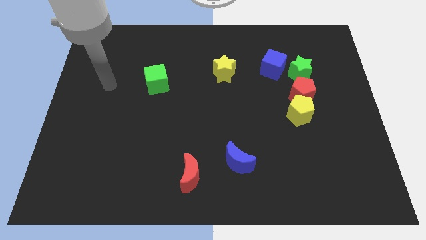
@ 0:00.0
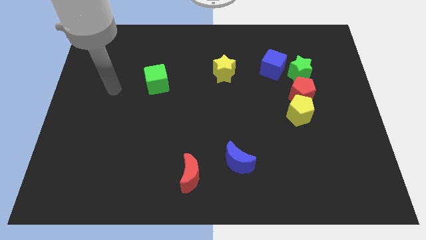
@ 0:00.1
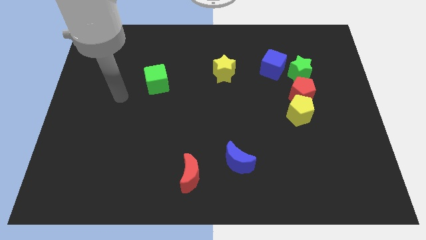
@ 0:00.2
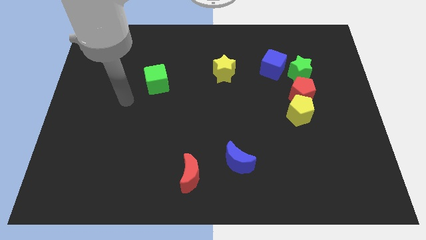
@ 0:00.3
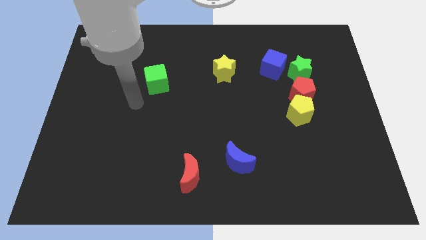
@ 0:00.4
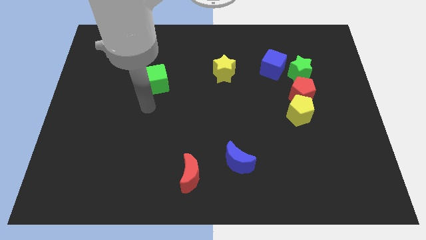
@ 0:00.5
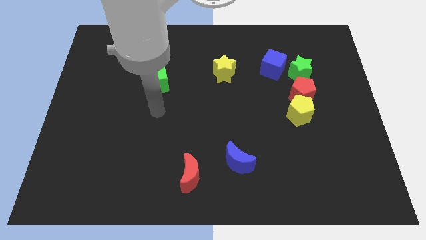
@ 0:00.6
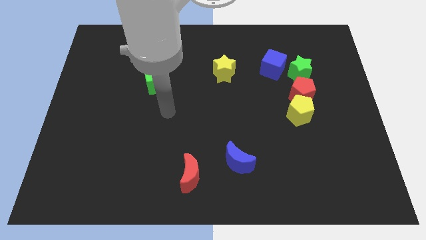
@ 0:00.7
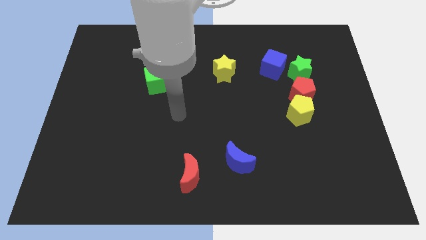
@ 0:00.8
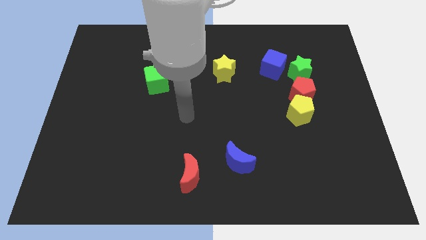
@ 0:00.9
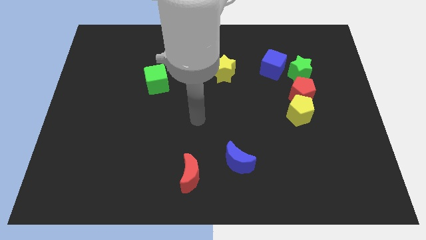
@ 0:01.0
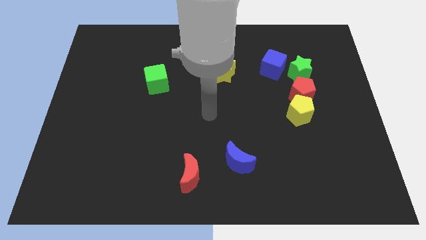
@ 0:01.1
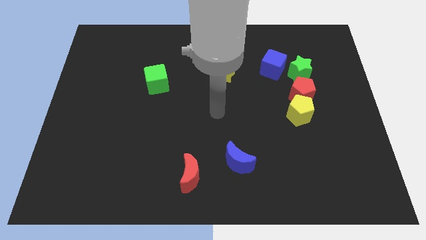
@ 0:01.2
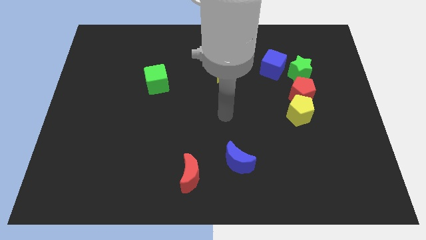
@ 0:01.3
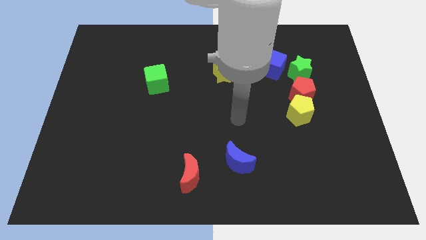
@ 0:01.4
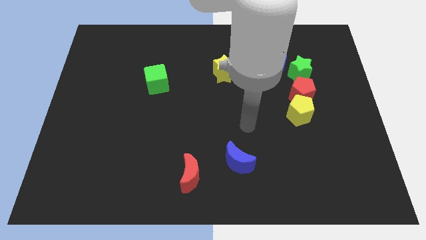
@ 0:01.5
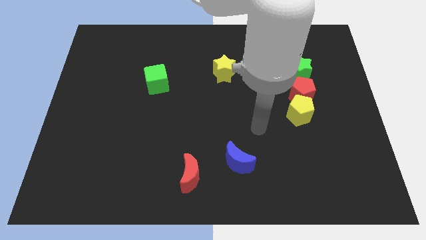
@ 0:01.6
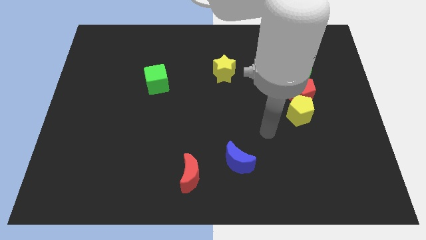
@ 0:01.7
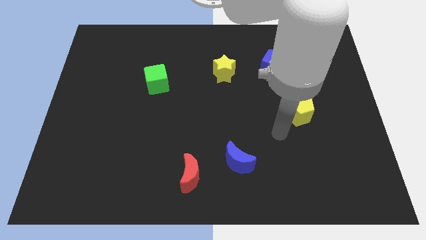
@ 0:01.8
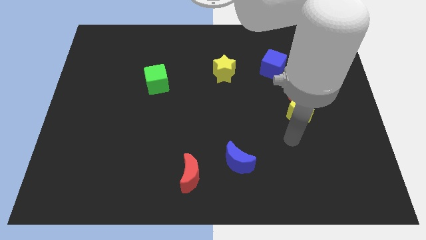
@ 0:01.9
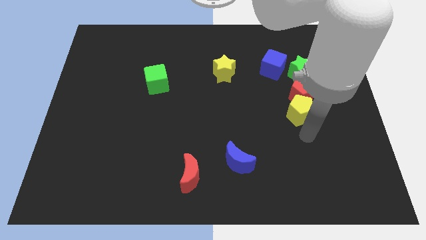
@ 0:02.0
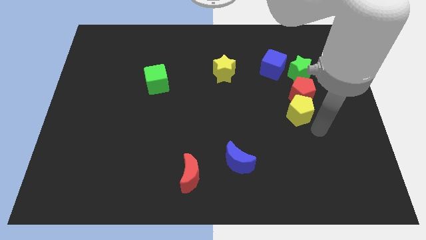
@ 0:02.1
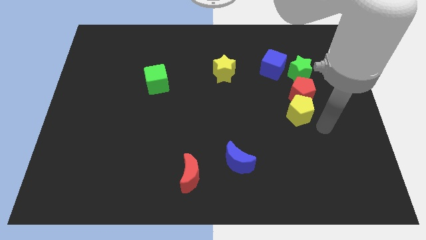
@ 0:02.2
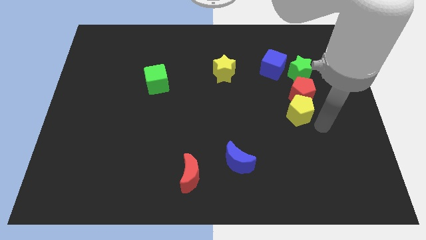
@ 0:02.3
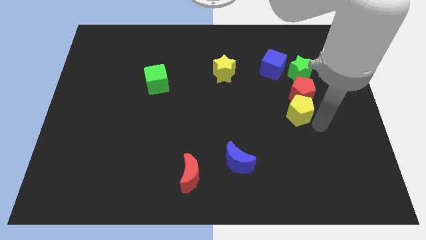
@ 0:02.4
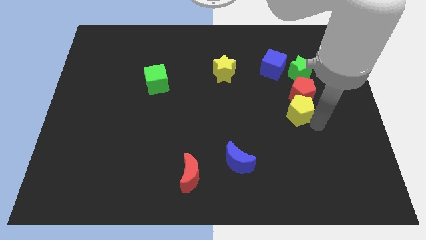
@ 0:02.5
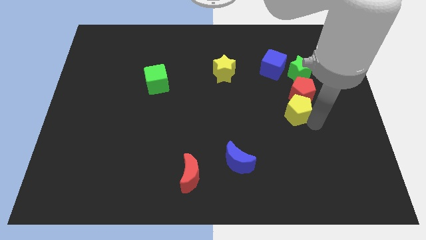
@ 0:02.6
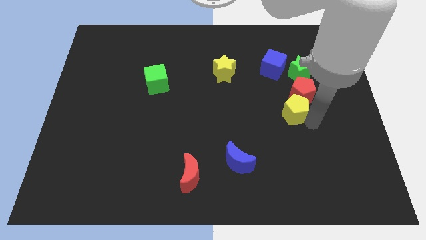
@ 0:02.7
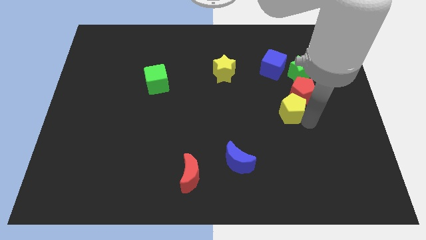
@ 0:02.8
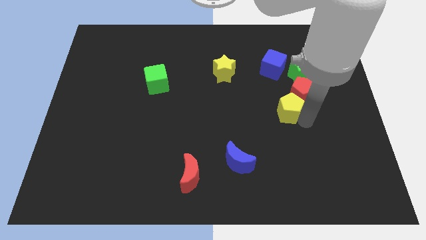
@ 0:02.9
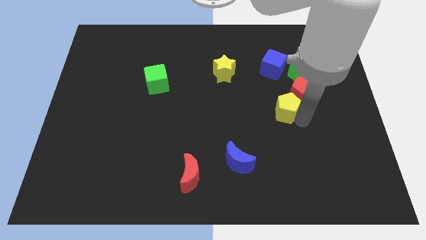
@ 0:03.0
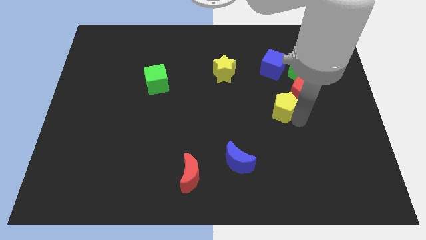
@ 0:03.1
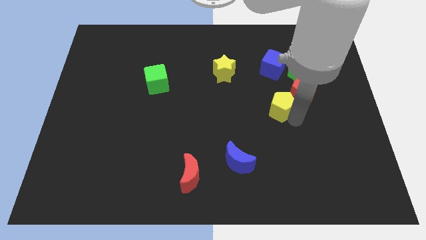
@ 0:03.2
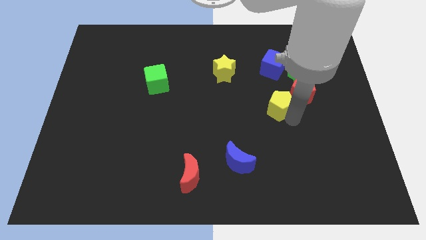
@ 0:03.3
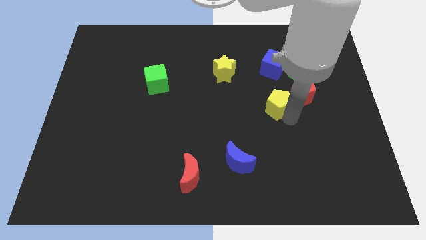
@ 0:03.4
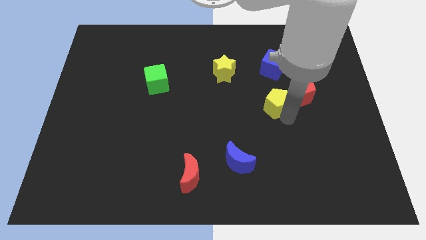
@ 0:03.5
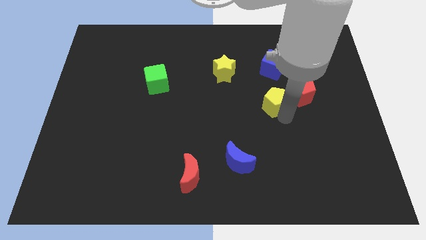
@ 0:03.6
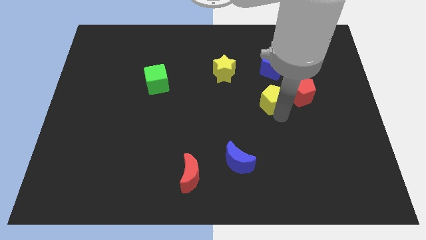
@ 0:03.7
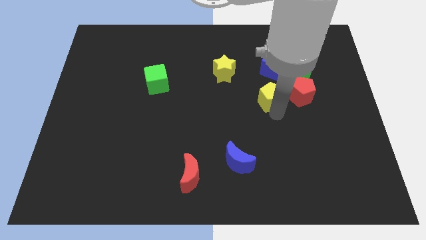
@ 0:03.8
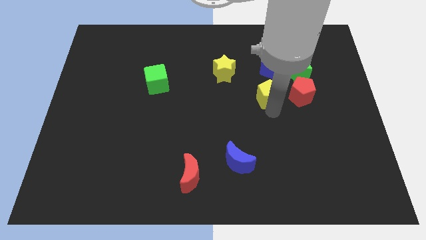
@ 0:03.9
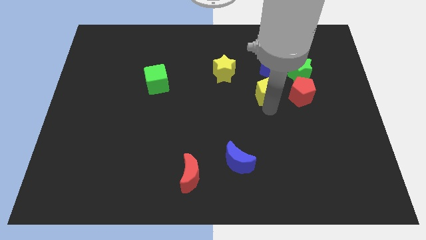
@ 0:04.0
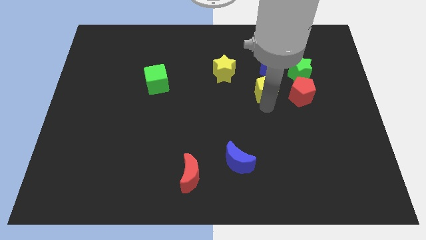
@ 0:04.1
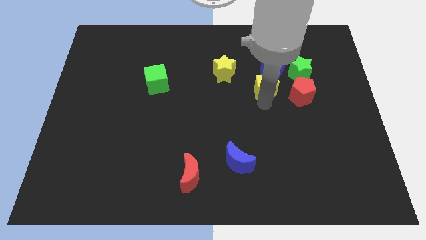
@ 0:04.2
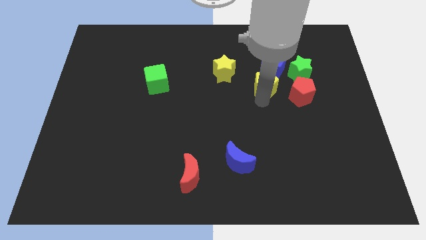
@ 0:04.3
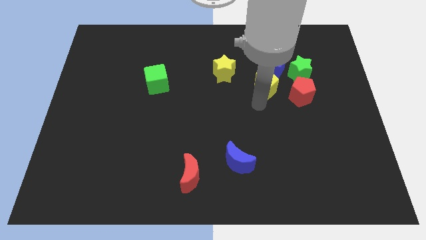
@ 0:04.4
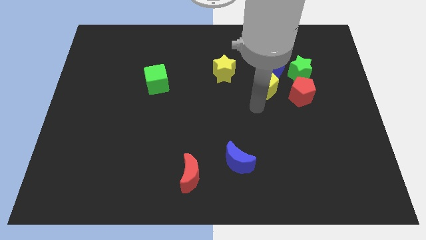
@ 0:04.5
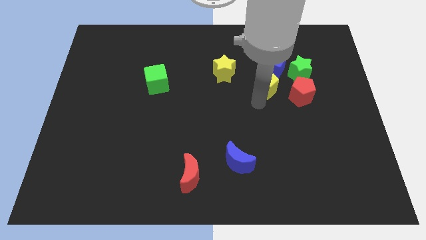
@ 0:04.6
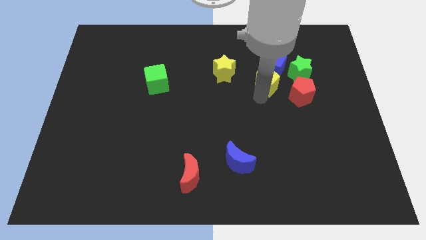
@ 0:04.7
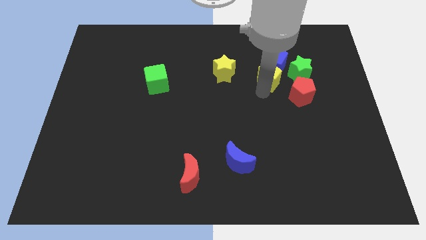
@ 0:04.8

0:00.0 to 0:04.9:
move the yellow pentagon to the blue cube

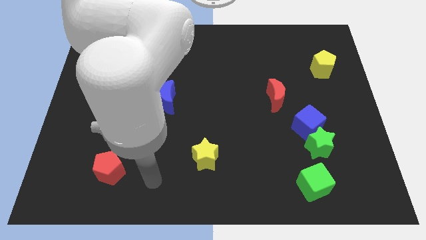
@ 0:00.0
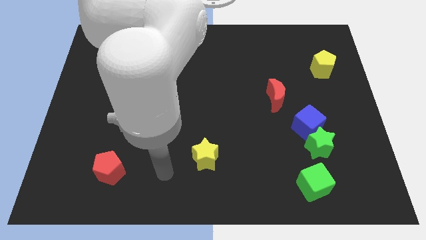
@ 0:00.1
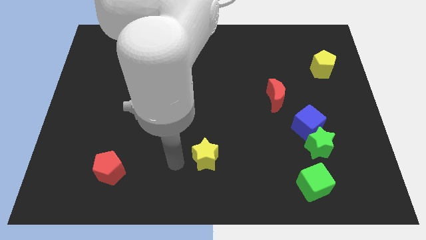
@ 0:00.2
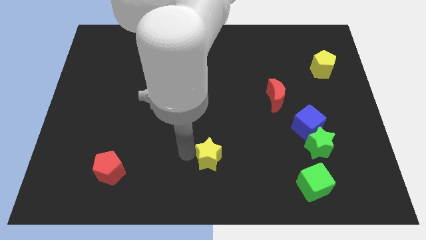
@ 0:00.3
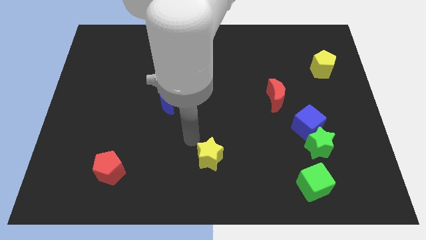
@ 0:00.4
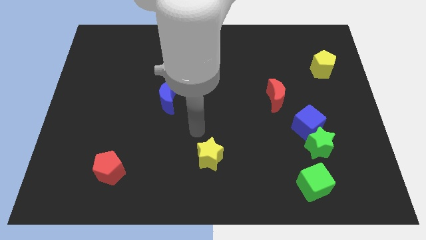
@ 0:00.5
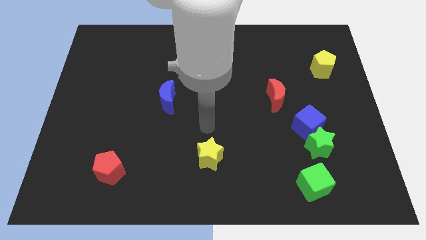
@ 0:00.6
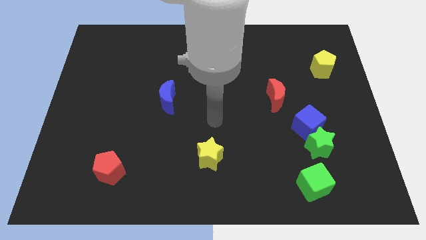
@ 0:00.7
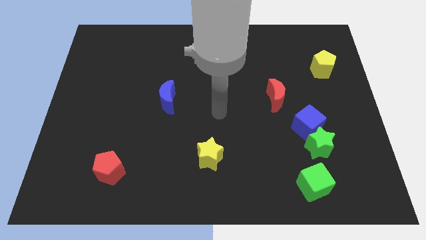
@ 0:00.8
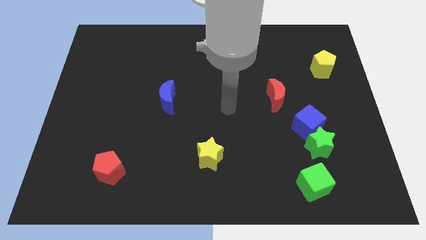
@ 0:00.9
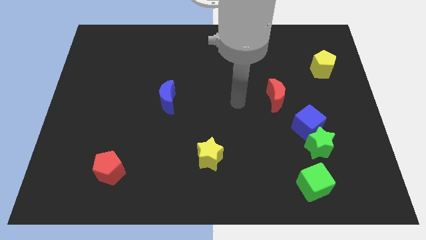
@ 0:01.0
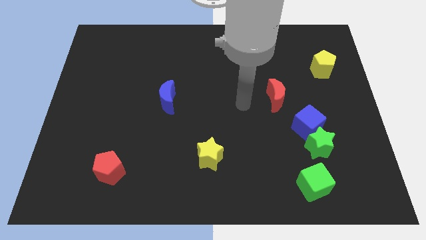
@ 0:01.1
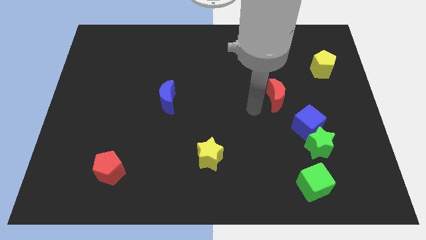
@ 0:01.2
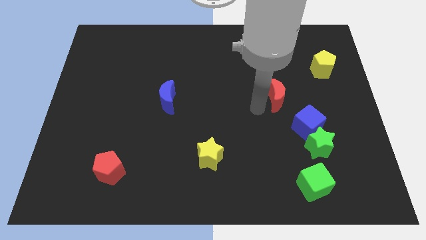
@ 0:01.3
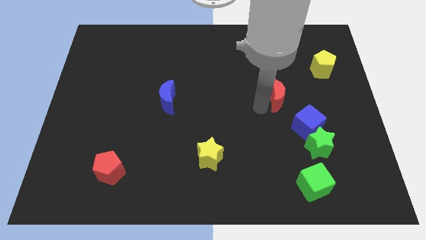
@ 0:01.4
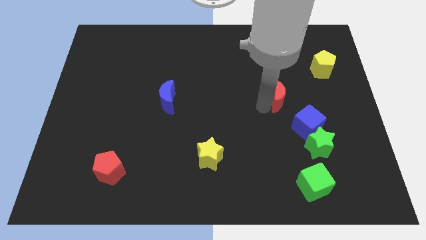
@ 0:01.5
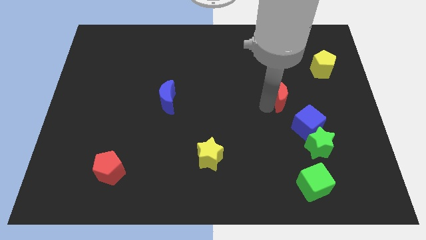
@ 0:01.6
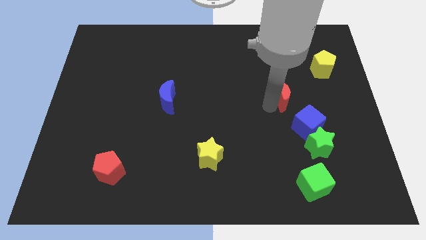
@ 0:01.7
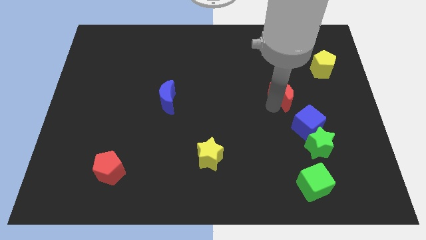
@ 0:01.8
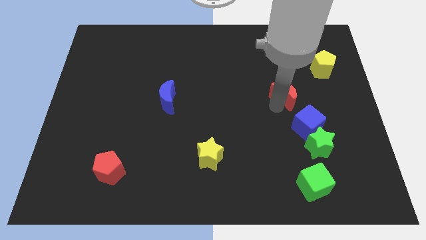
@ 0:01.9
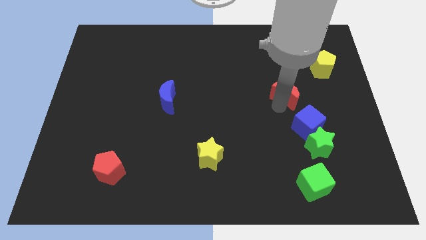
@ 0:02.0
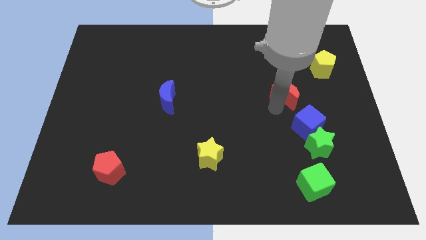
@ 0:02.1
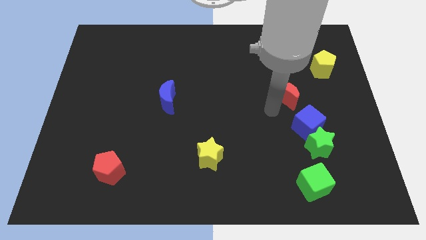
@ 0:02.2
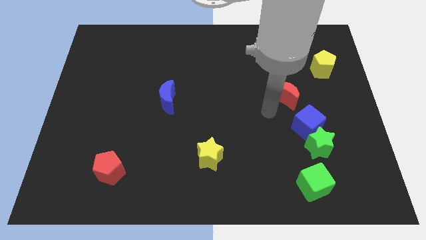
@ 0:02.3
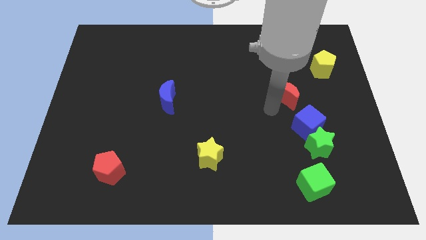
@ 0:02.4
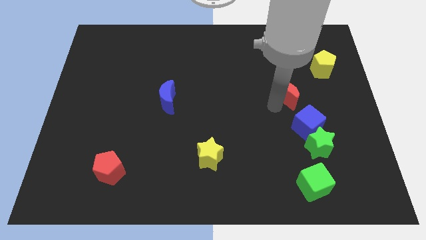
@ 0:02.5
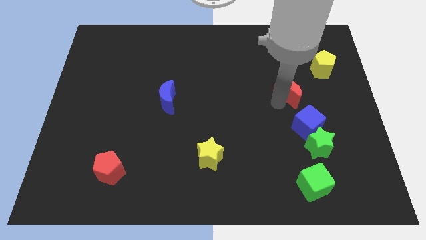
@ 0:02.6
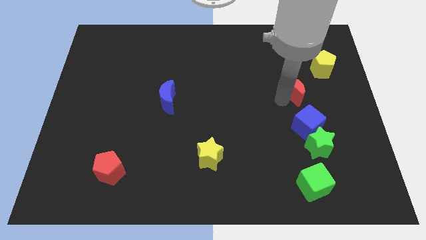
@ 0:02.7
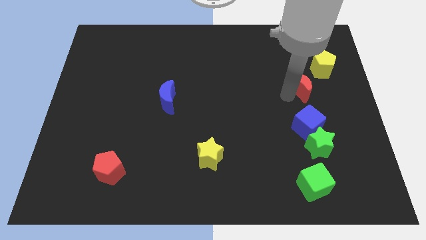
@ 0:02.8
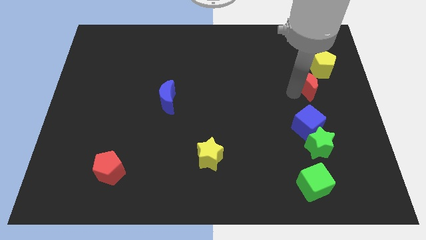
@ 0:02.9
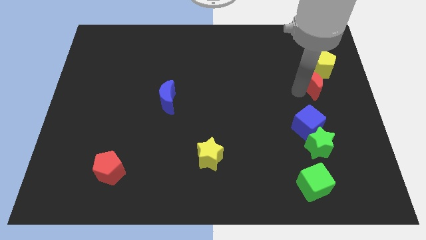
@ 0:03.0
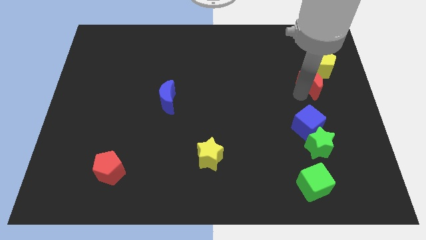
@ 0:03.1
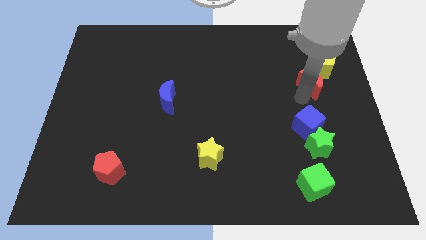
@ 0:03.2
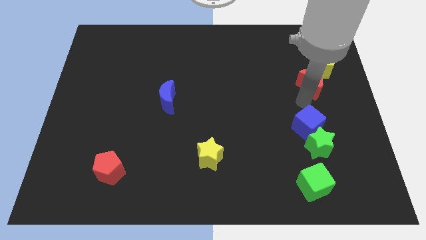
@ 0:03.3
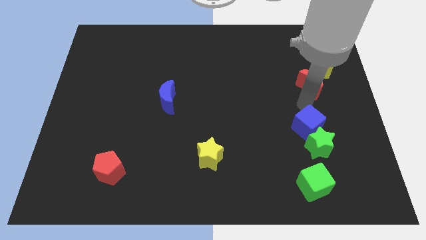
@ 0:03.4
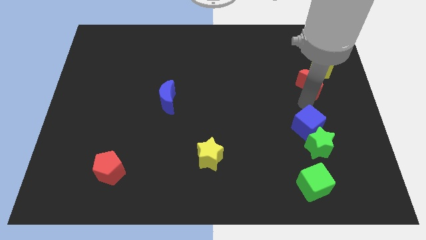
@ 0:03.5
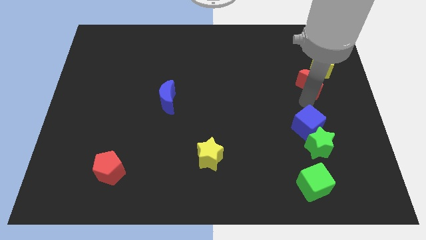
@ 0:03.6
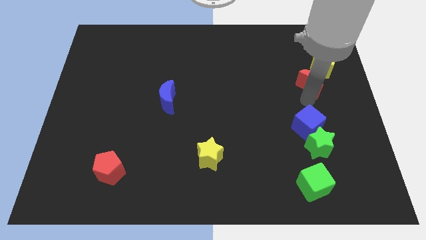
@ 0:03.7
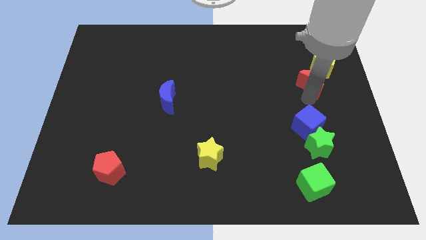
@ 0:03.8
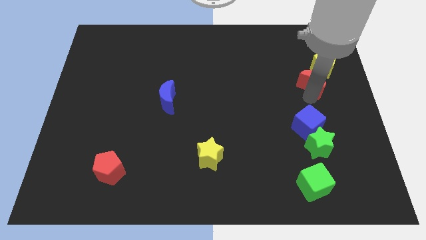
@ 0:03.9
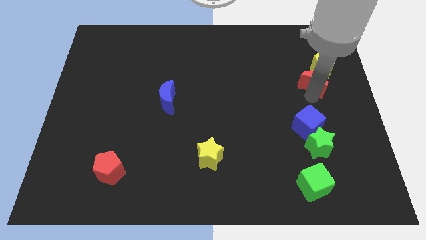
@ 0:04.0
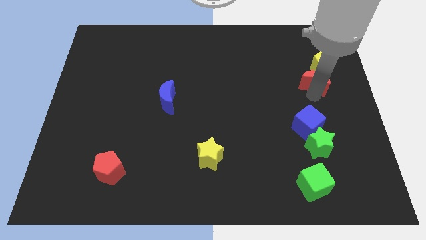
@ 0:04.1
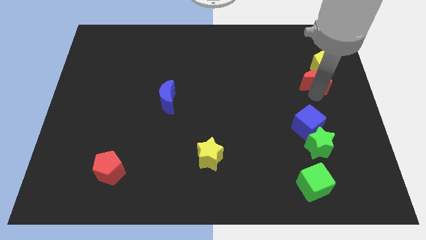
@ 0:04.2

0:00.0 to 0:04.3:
push the red moon next to the yellow pentagon
